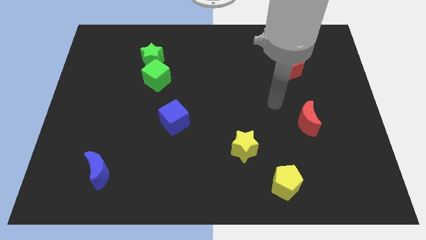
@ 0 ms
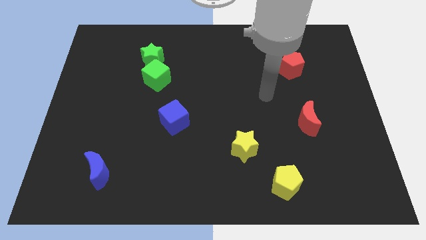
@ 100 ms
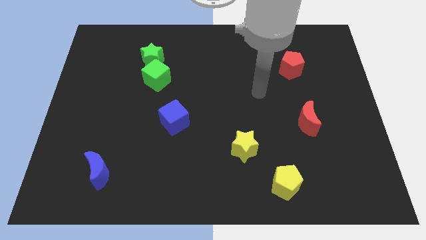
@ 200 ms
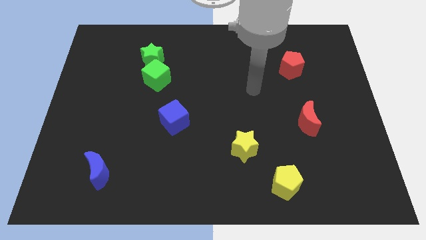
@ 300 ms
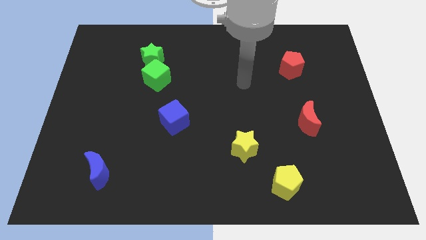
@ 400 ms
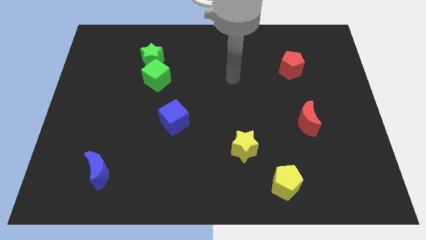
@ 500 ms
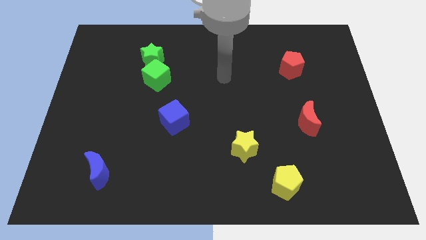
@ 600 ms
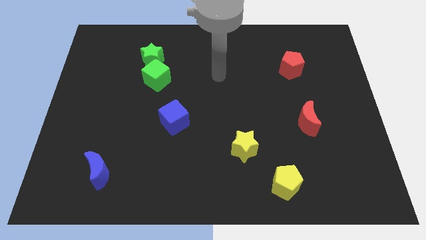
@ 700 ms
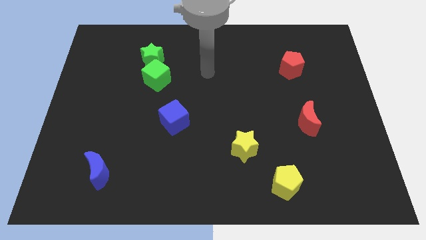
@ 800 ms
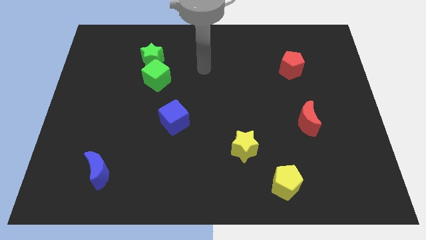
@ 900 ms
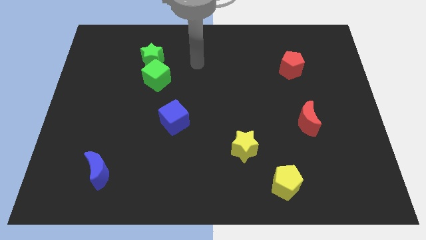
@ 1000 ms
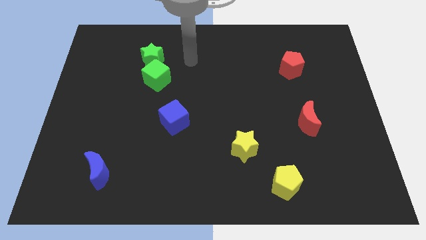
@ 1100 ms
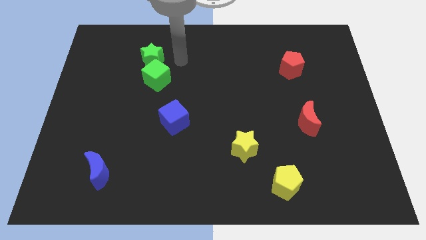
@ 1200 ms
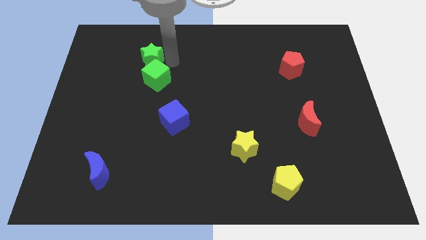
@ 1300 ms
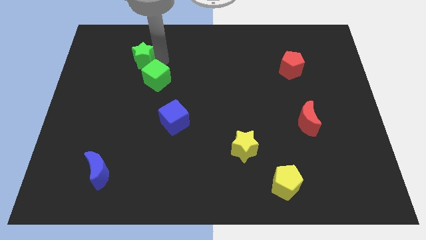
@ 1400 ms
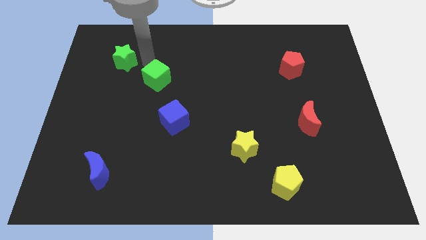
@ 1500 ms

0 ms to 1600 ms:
separate the green cube from the green star

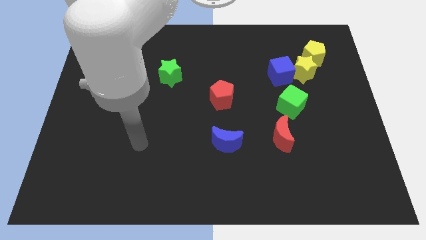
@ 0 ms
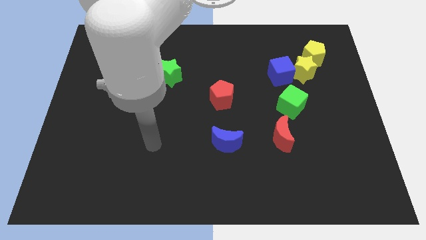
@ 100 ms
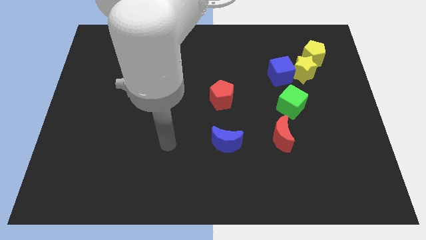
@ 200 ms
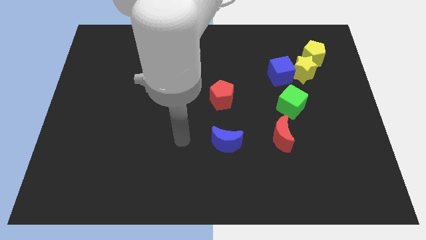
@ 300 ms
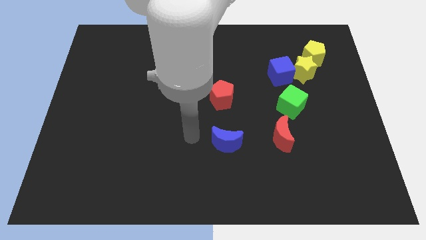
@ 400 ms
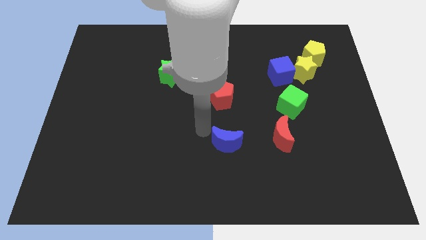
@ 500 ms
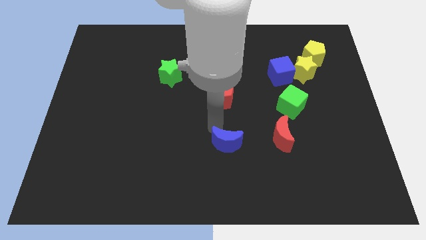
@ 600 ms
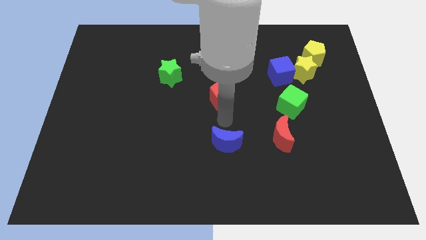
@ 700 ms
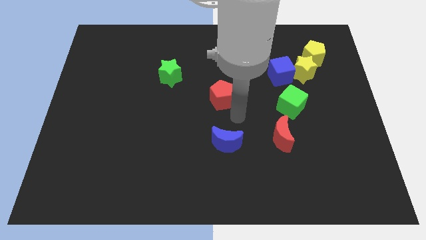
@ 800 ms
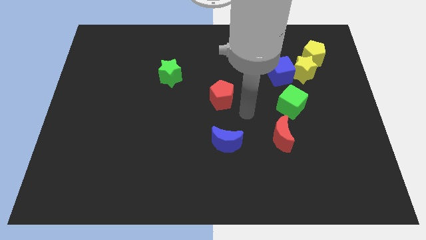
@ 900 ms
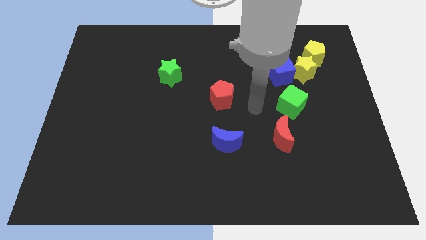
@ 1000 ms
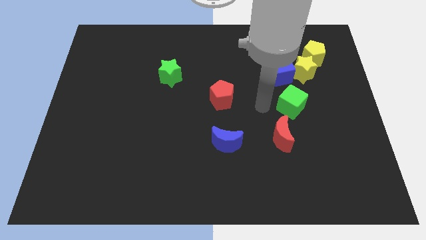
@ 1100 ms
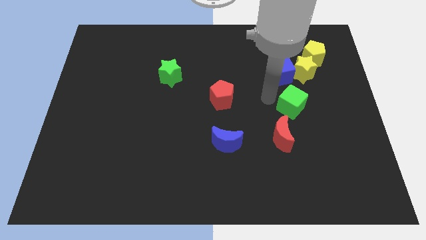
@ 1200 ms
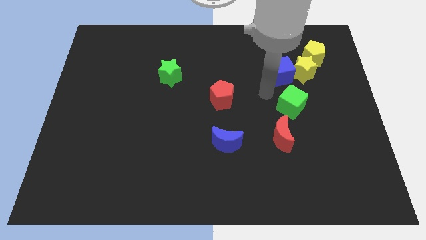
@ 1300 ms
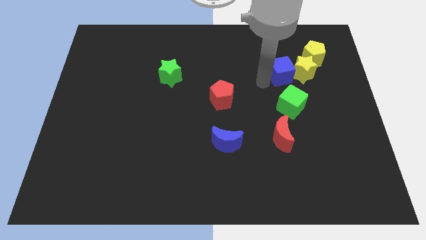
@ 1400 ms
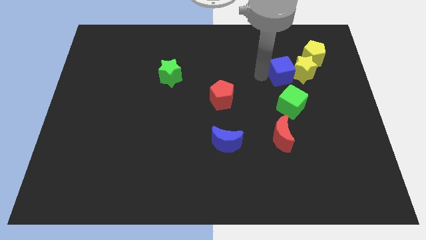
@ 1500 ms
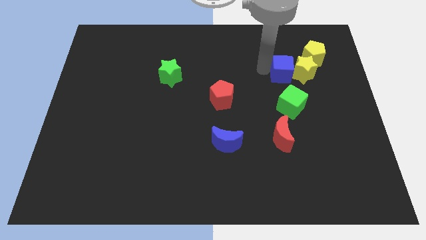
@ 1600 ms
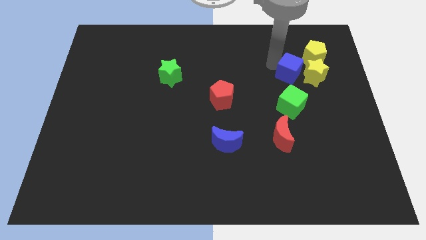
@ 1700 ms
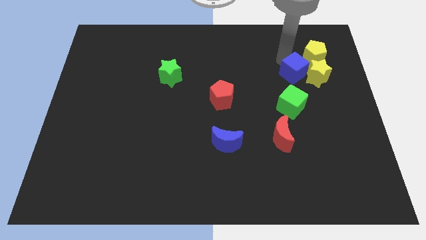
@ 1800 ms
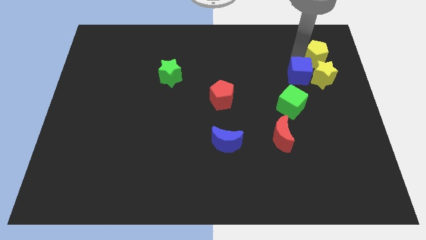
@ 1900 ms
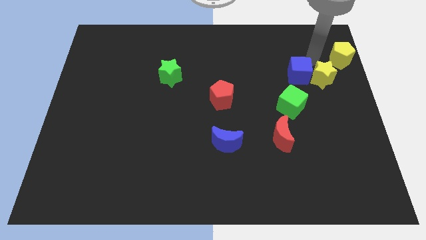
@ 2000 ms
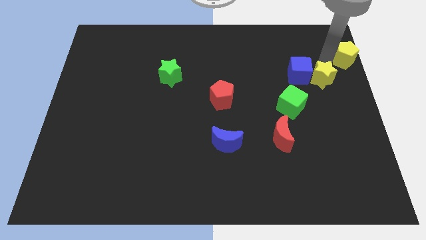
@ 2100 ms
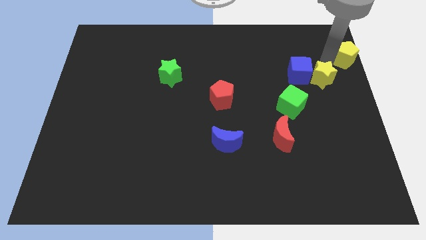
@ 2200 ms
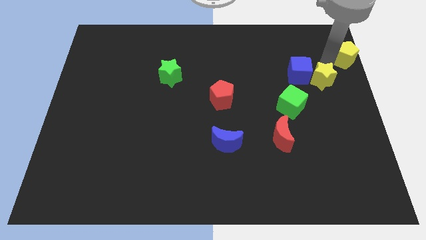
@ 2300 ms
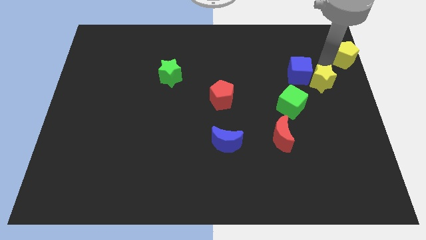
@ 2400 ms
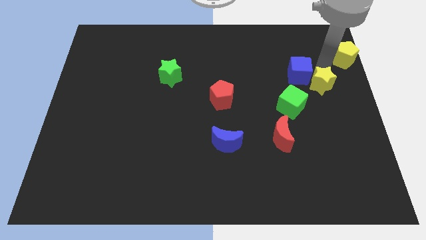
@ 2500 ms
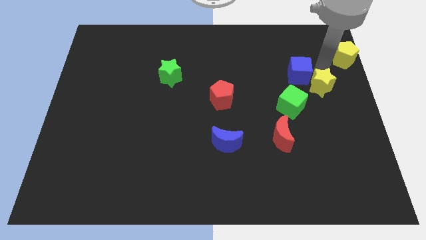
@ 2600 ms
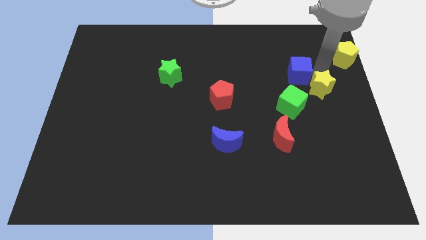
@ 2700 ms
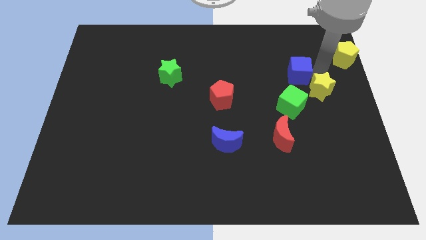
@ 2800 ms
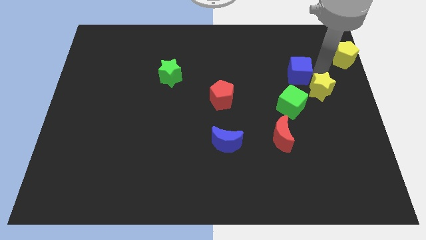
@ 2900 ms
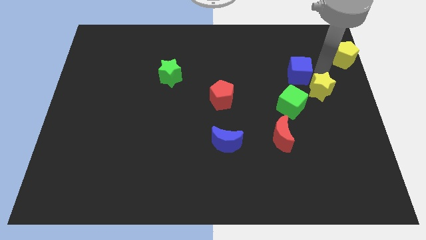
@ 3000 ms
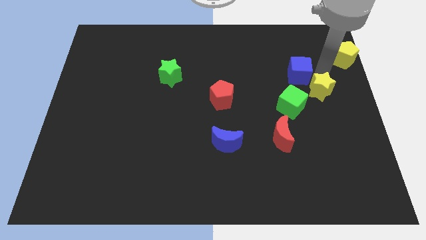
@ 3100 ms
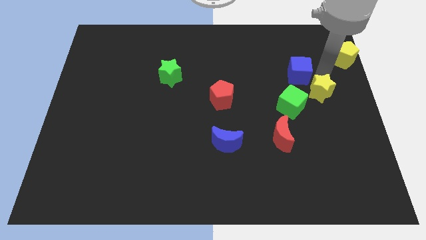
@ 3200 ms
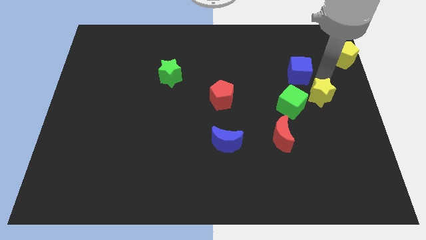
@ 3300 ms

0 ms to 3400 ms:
separate the yellow star from the blue cube and yellow pentagon

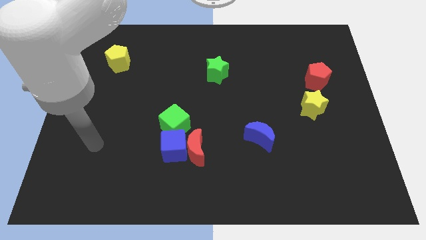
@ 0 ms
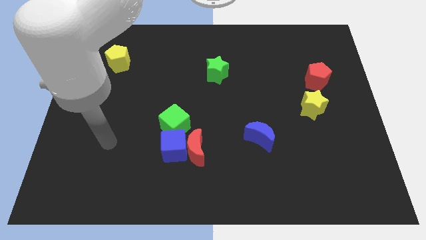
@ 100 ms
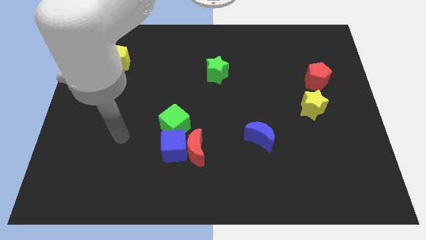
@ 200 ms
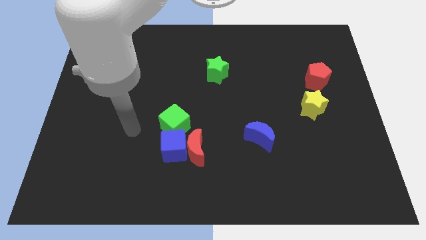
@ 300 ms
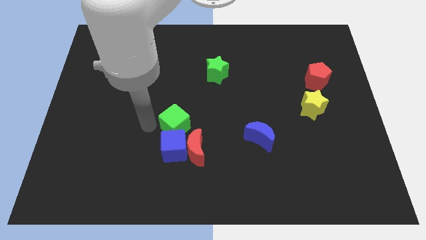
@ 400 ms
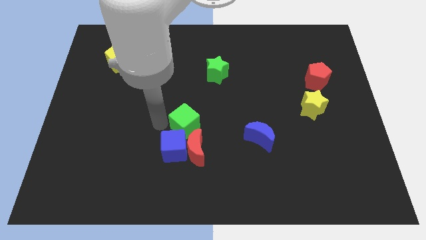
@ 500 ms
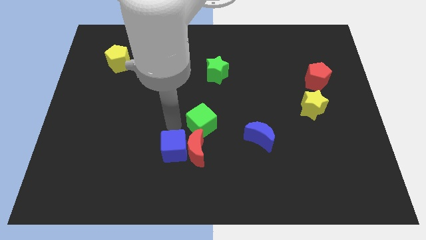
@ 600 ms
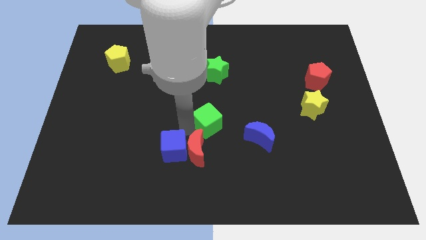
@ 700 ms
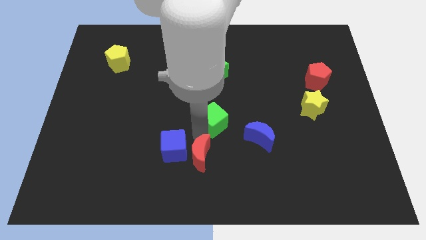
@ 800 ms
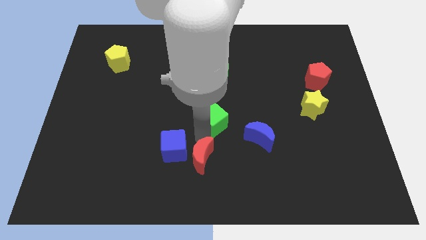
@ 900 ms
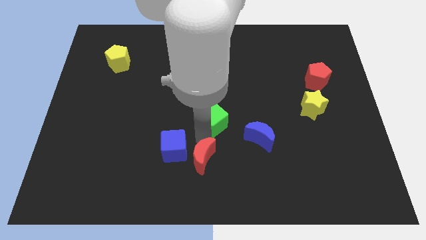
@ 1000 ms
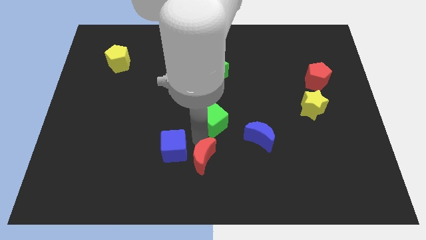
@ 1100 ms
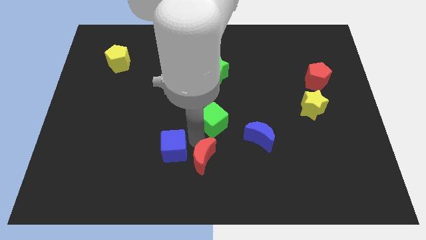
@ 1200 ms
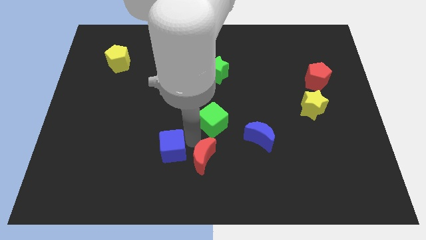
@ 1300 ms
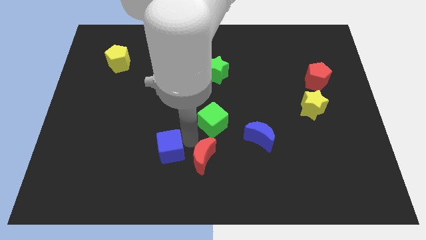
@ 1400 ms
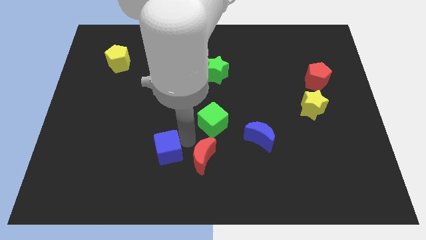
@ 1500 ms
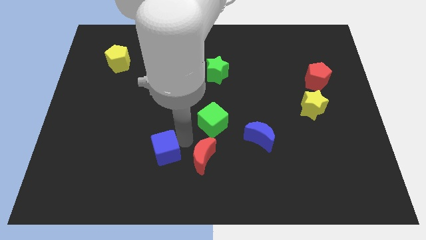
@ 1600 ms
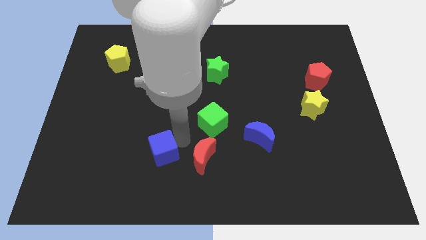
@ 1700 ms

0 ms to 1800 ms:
move the blue cube away from the red moon and green cube

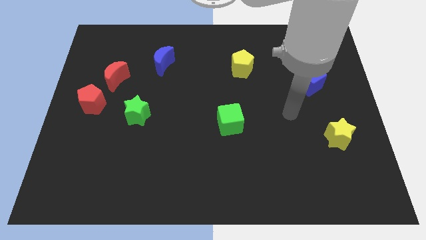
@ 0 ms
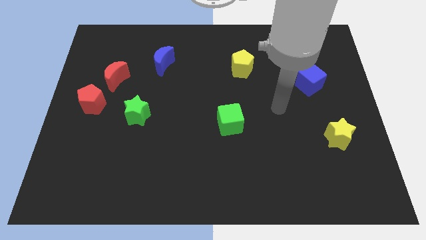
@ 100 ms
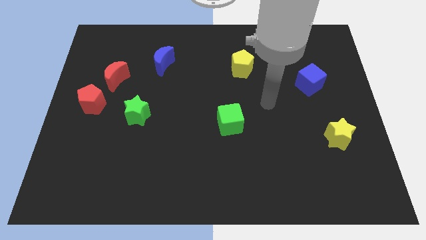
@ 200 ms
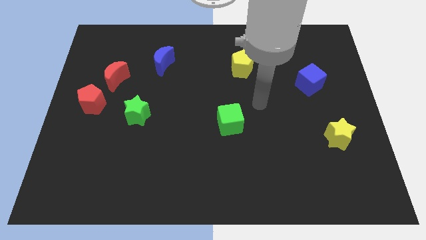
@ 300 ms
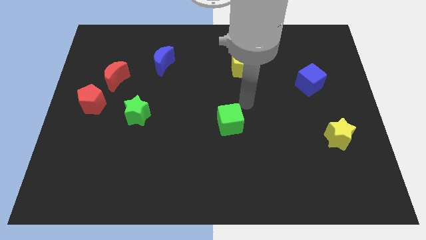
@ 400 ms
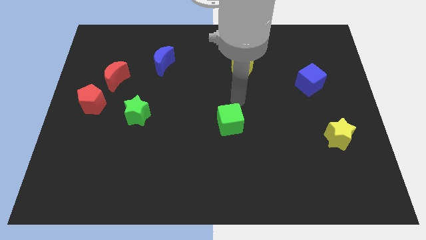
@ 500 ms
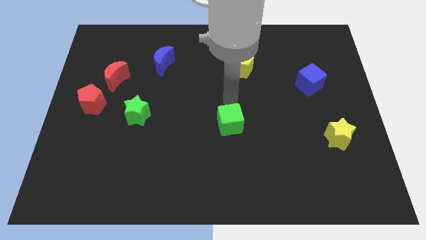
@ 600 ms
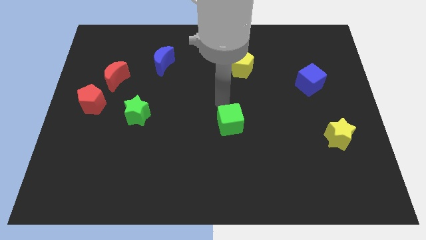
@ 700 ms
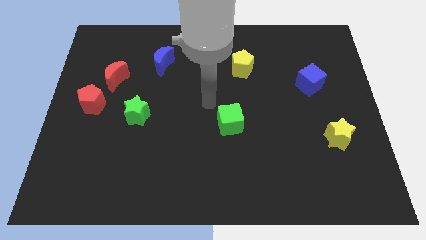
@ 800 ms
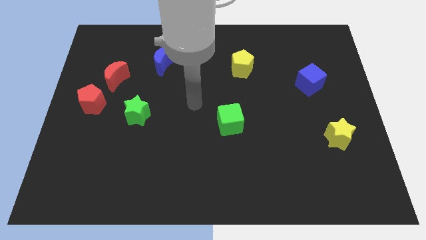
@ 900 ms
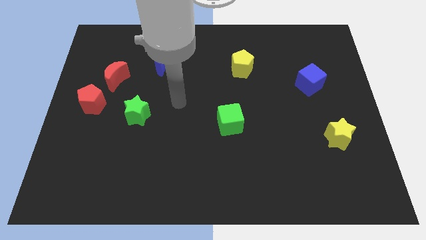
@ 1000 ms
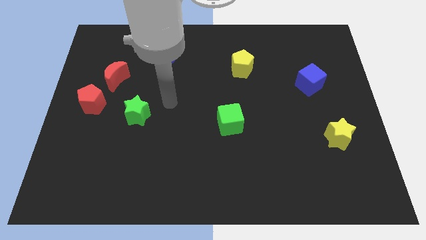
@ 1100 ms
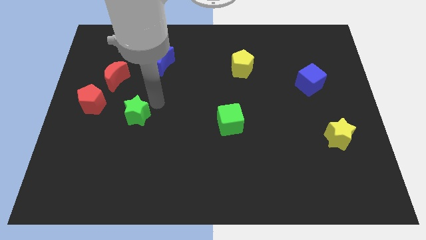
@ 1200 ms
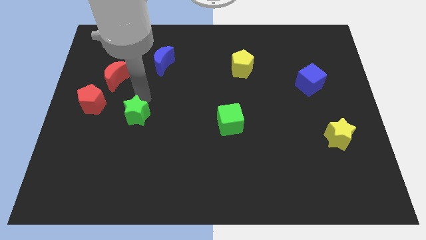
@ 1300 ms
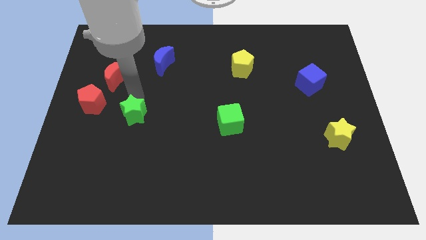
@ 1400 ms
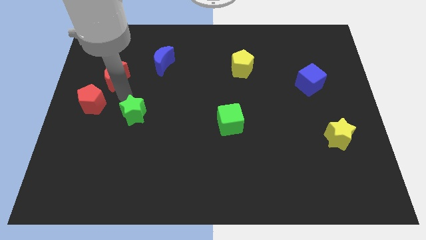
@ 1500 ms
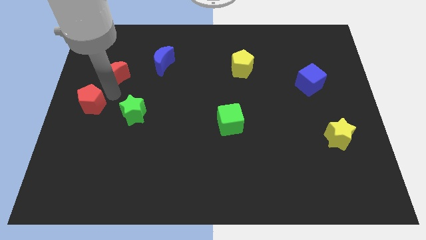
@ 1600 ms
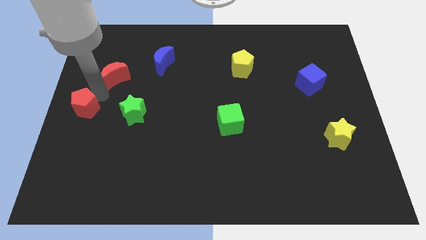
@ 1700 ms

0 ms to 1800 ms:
separate the red moon from the red pentagon

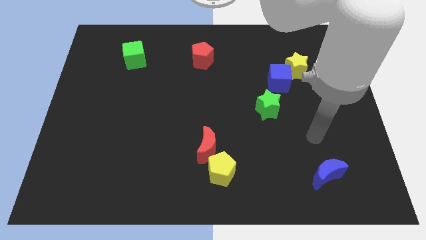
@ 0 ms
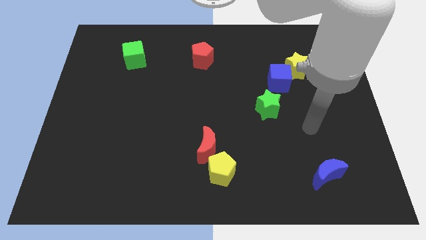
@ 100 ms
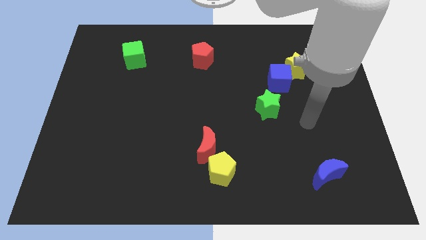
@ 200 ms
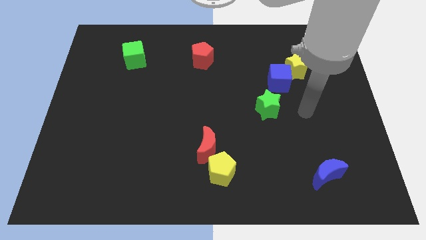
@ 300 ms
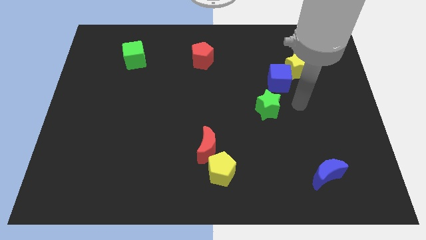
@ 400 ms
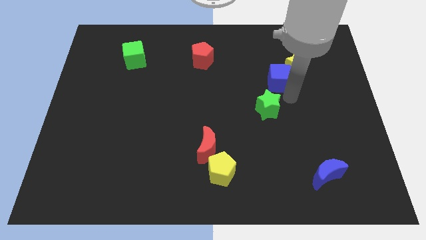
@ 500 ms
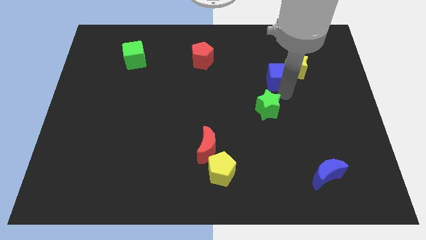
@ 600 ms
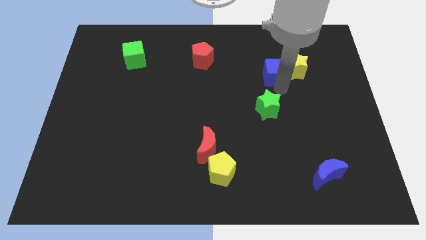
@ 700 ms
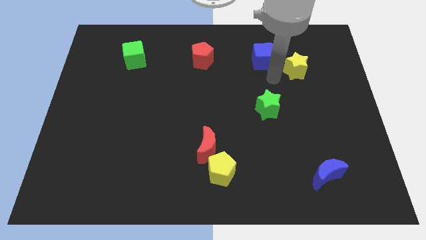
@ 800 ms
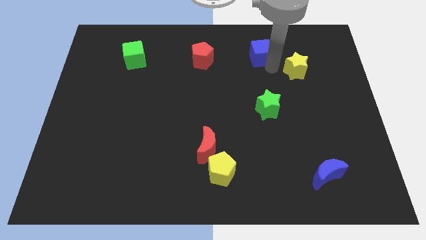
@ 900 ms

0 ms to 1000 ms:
separate the yellow star from the blue cube
